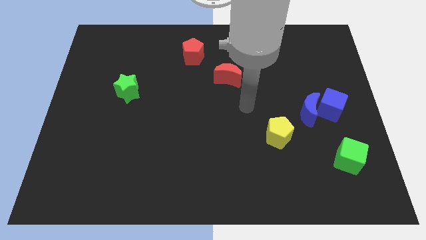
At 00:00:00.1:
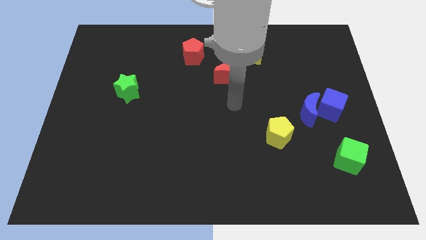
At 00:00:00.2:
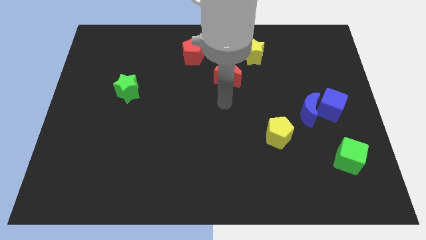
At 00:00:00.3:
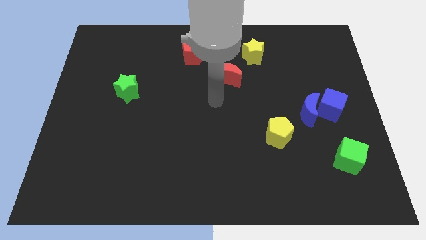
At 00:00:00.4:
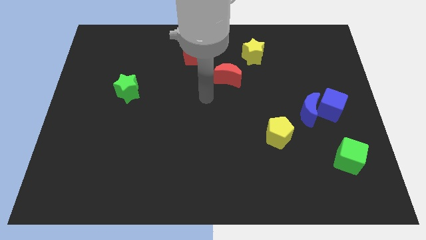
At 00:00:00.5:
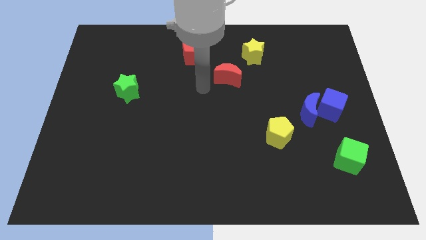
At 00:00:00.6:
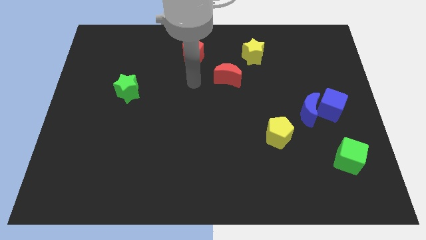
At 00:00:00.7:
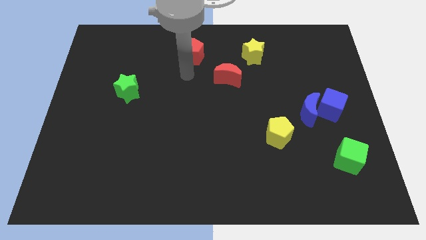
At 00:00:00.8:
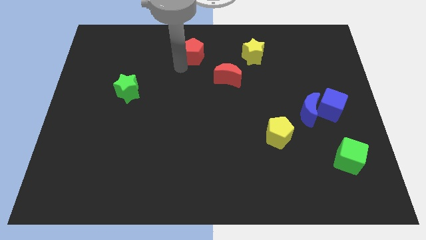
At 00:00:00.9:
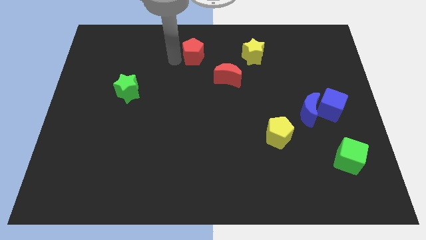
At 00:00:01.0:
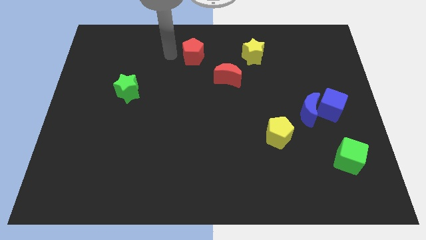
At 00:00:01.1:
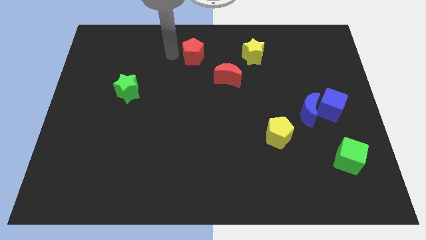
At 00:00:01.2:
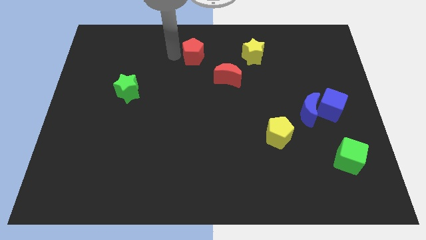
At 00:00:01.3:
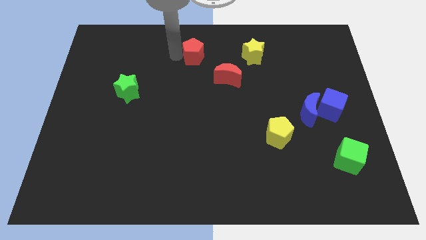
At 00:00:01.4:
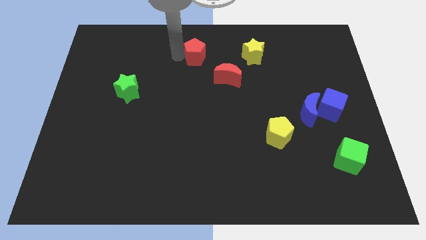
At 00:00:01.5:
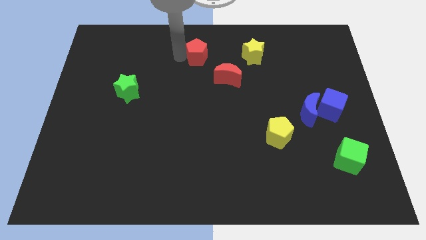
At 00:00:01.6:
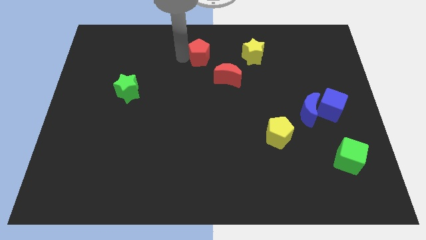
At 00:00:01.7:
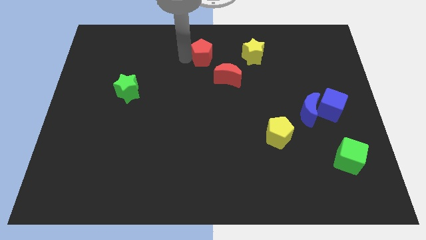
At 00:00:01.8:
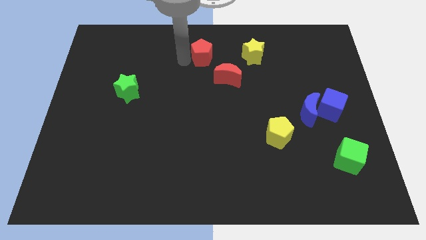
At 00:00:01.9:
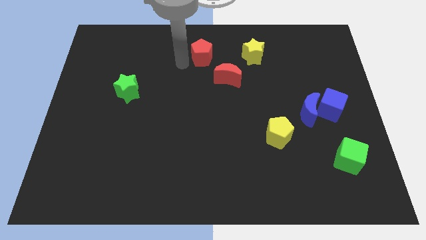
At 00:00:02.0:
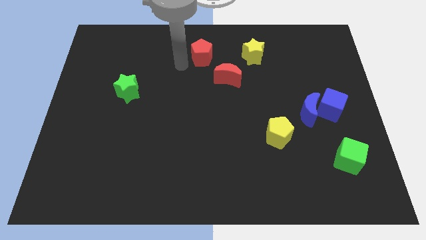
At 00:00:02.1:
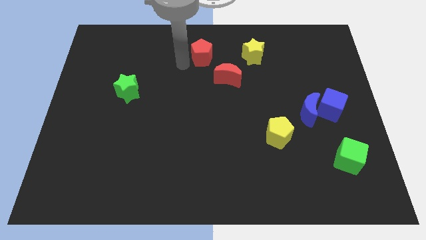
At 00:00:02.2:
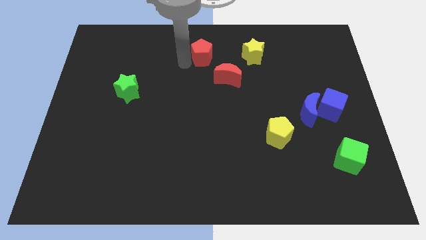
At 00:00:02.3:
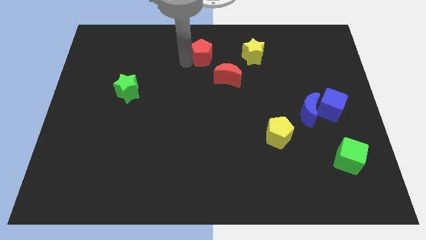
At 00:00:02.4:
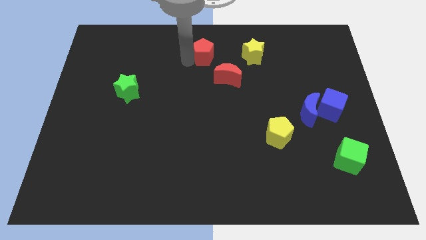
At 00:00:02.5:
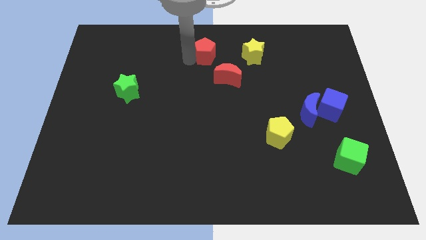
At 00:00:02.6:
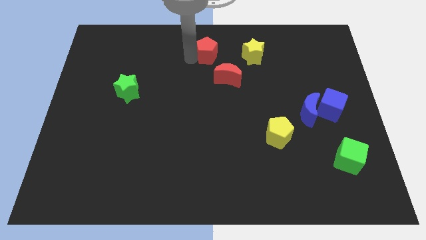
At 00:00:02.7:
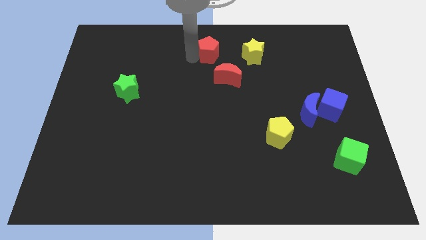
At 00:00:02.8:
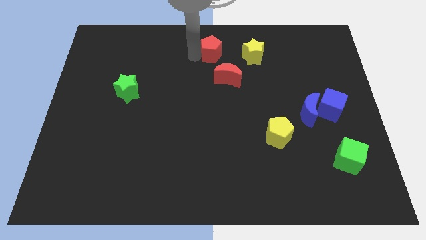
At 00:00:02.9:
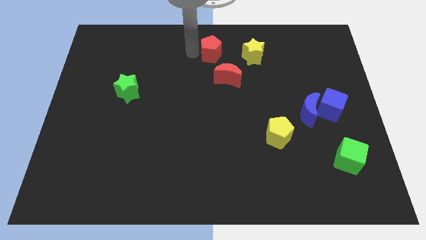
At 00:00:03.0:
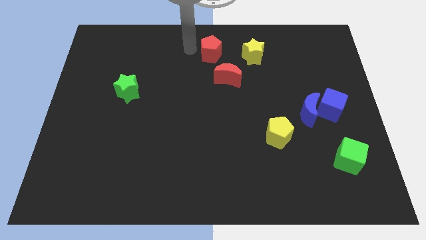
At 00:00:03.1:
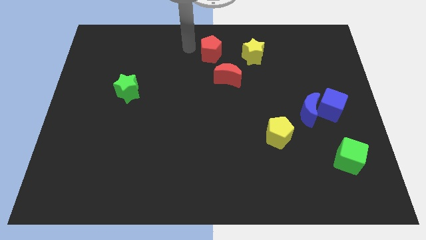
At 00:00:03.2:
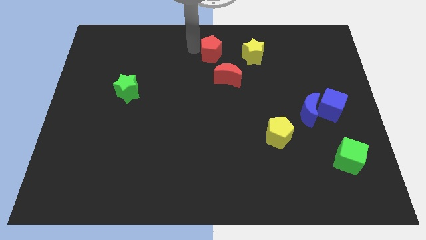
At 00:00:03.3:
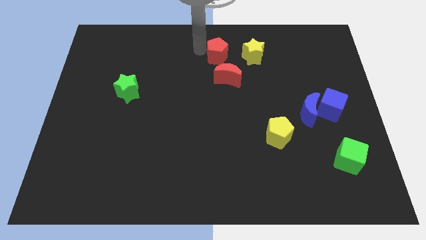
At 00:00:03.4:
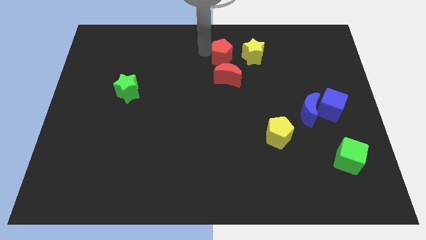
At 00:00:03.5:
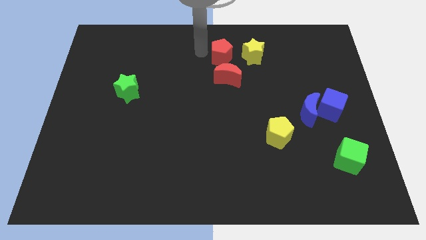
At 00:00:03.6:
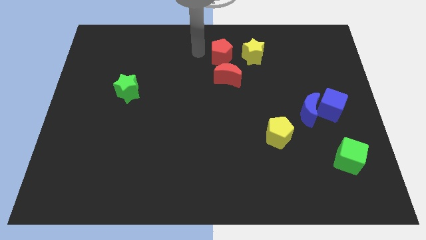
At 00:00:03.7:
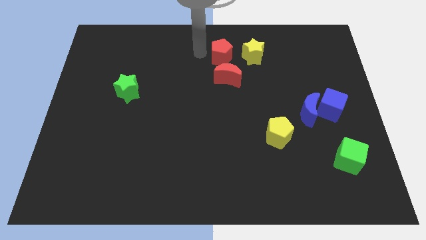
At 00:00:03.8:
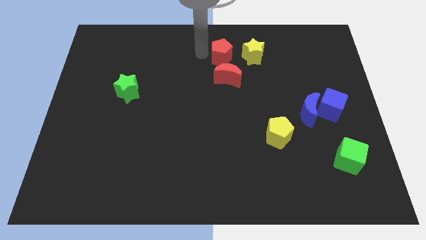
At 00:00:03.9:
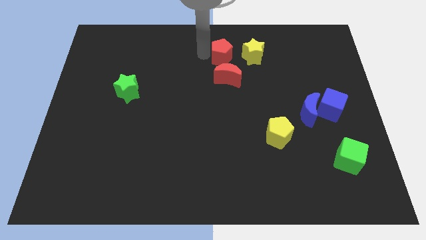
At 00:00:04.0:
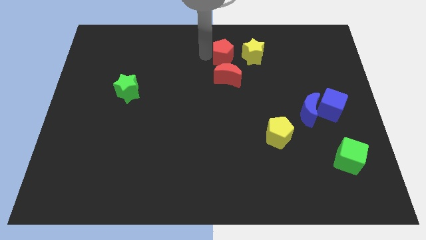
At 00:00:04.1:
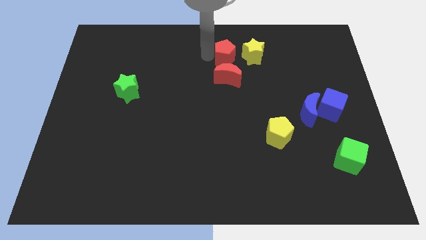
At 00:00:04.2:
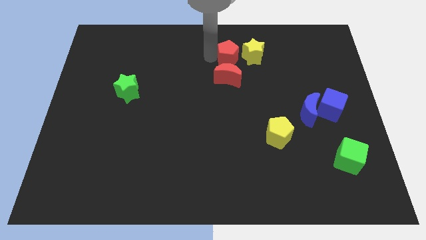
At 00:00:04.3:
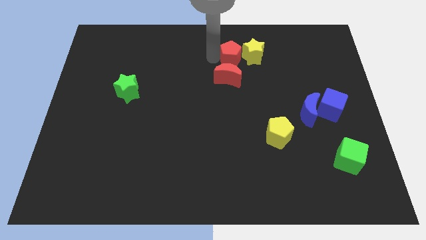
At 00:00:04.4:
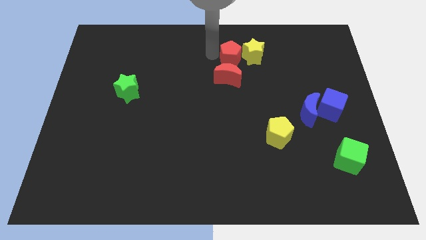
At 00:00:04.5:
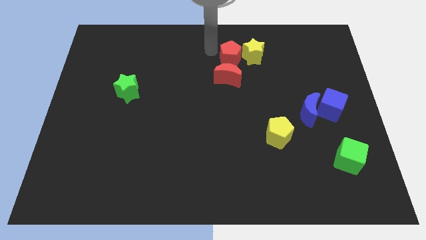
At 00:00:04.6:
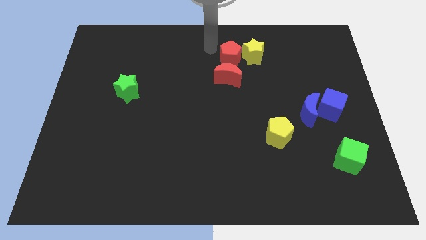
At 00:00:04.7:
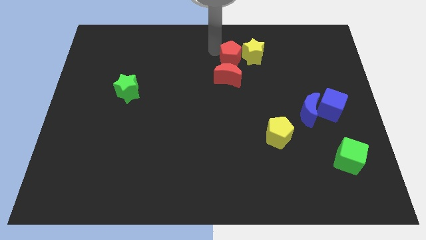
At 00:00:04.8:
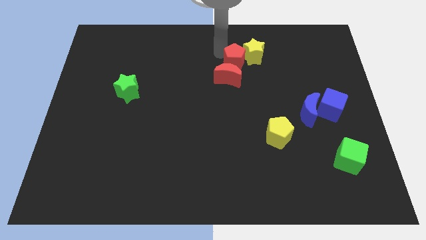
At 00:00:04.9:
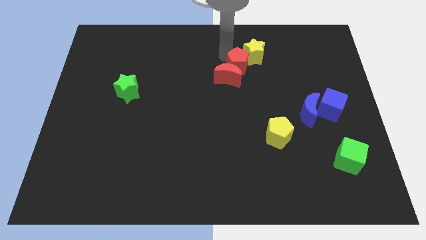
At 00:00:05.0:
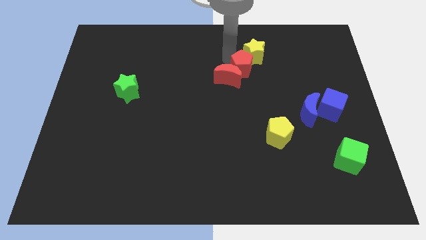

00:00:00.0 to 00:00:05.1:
move the red pentagon to the right side of the red moon

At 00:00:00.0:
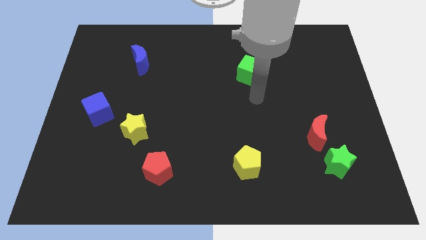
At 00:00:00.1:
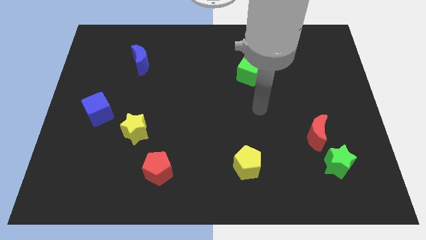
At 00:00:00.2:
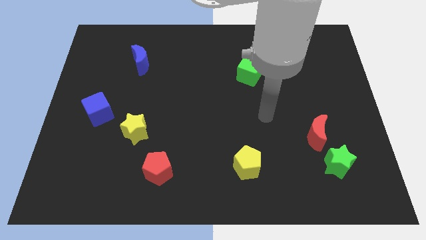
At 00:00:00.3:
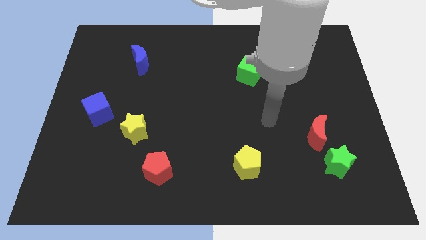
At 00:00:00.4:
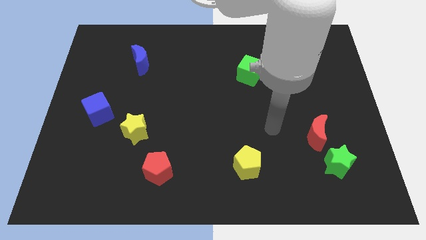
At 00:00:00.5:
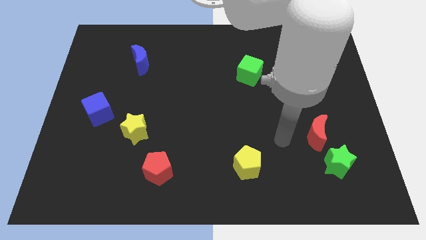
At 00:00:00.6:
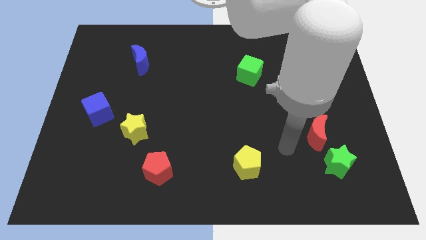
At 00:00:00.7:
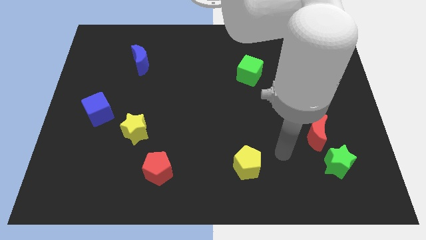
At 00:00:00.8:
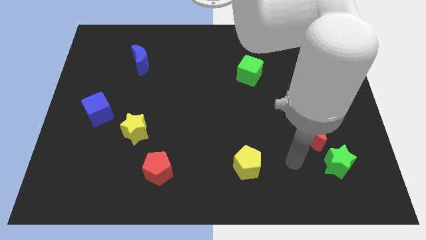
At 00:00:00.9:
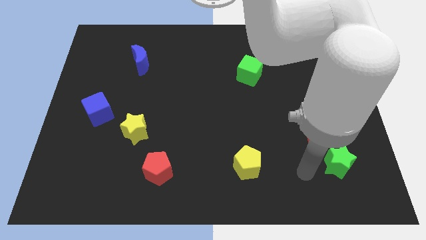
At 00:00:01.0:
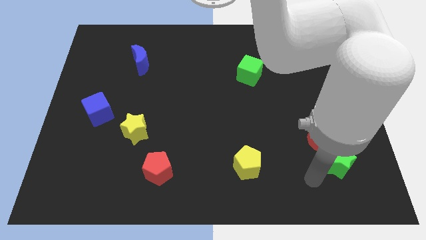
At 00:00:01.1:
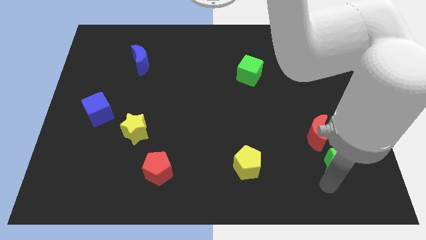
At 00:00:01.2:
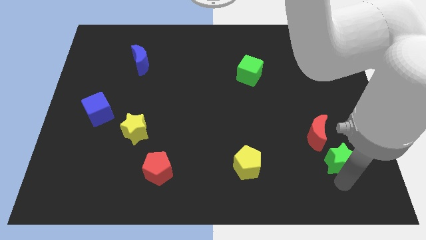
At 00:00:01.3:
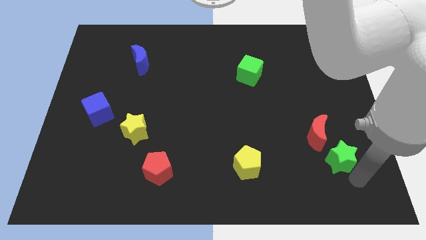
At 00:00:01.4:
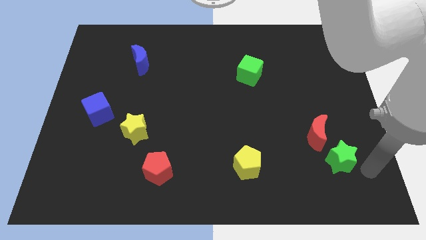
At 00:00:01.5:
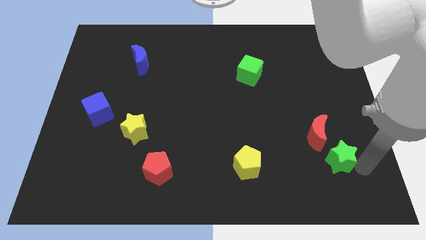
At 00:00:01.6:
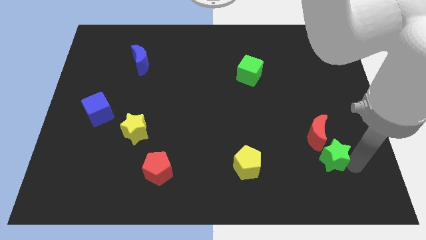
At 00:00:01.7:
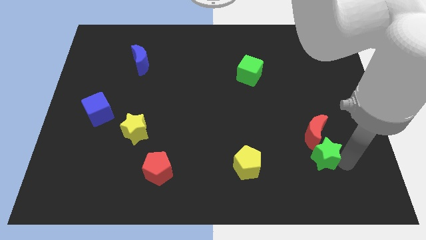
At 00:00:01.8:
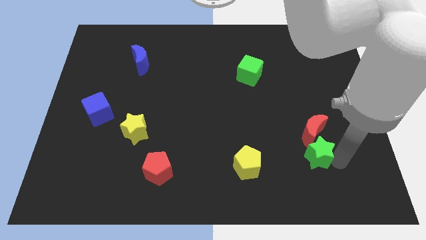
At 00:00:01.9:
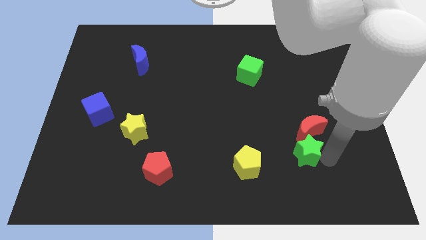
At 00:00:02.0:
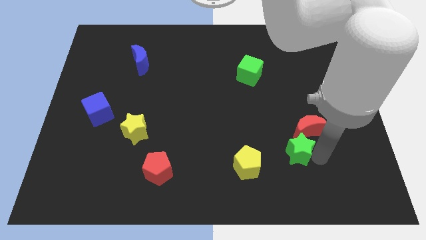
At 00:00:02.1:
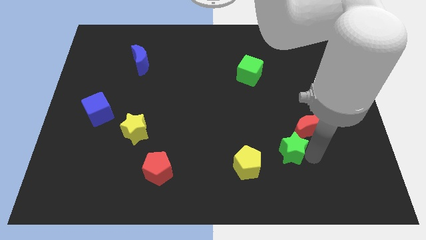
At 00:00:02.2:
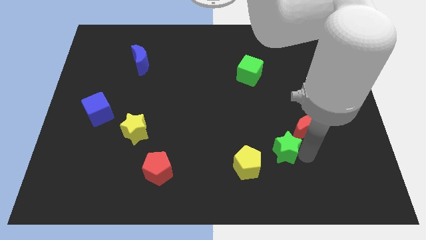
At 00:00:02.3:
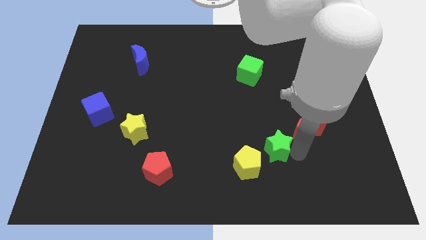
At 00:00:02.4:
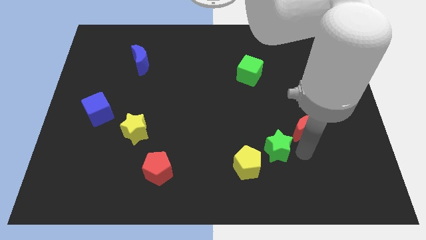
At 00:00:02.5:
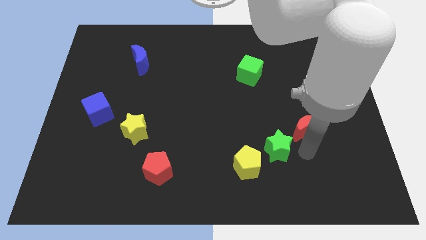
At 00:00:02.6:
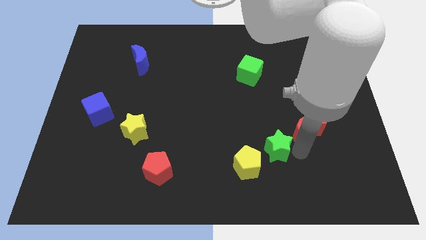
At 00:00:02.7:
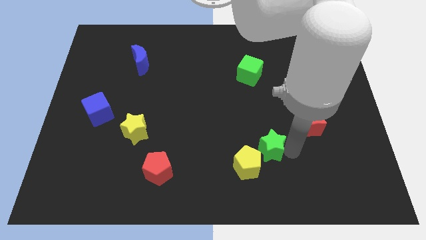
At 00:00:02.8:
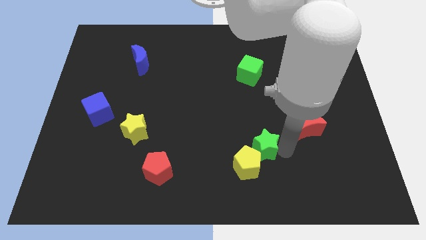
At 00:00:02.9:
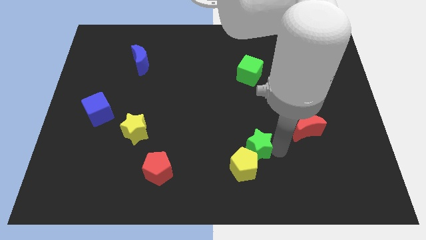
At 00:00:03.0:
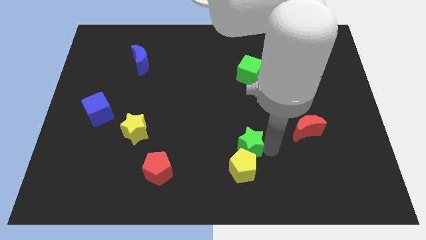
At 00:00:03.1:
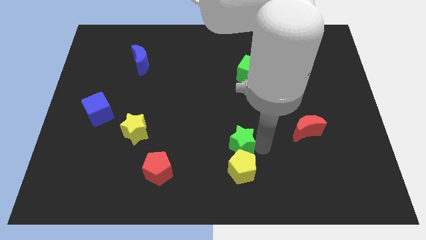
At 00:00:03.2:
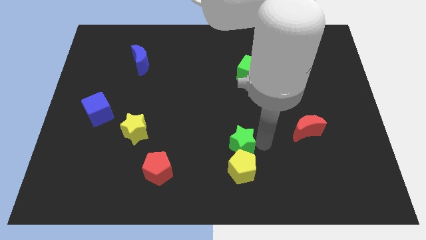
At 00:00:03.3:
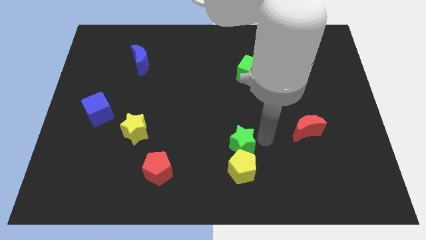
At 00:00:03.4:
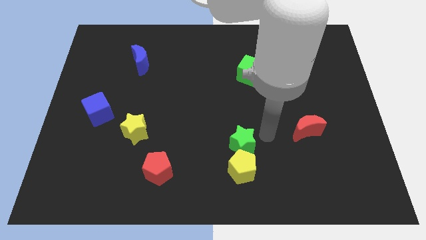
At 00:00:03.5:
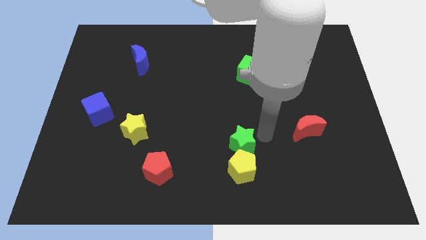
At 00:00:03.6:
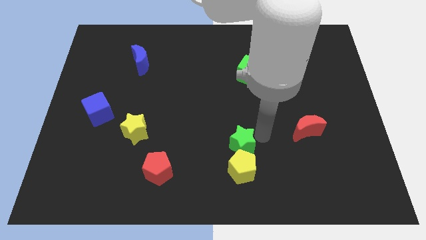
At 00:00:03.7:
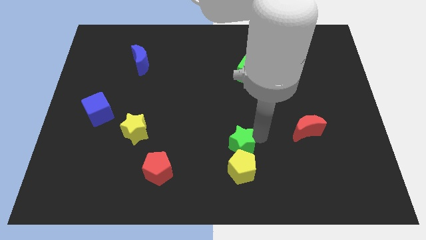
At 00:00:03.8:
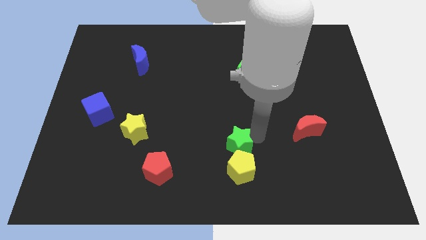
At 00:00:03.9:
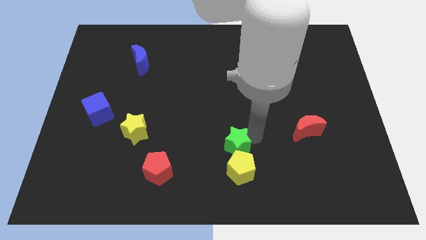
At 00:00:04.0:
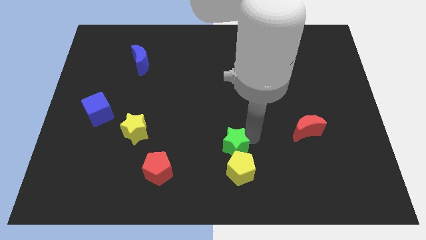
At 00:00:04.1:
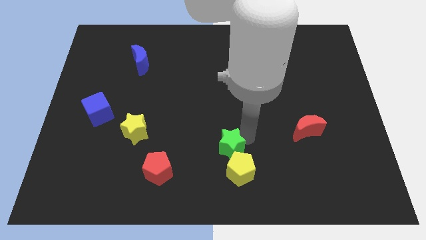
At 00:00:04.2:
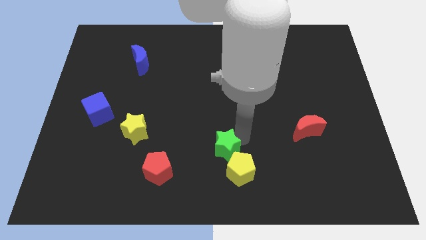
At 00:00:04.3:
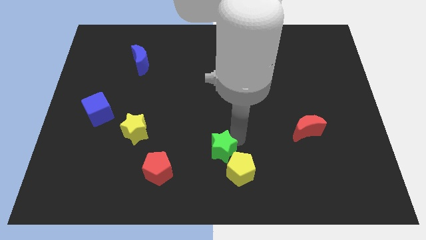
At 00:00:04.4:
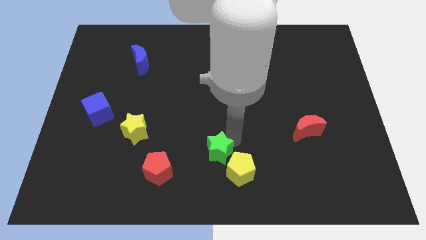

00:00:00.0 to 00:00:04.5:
push the green star just left of the yellow pentagon
